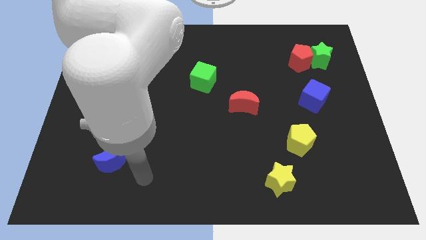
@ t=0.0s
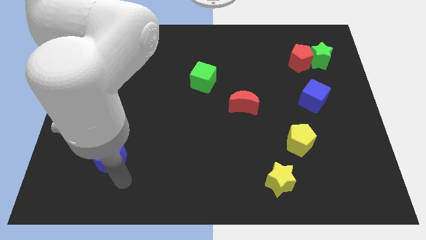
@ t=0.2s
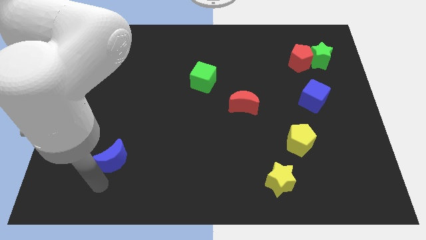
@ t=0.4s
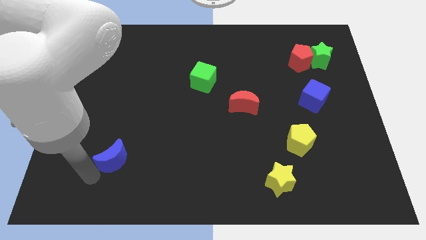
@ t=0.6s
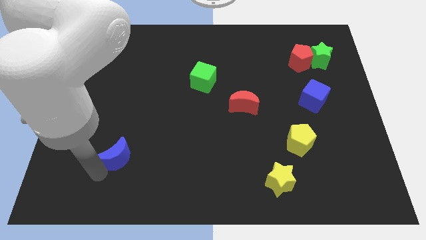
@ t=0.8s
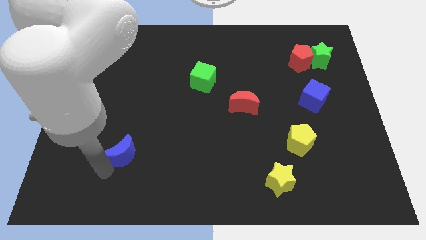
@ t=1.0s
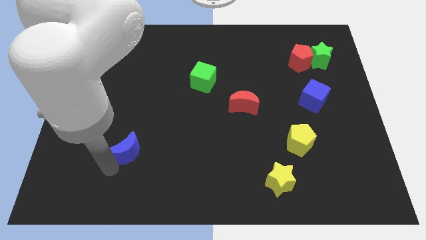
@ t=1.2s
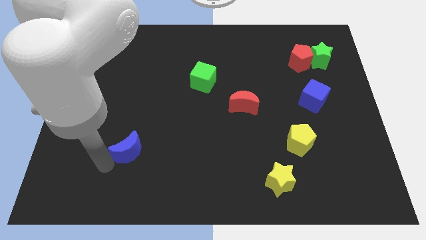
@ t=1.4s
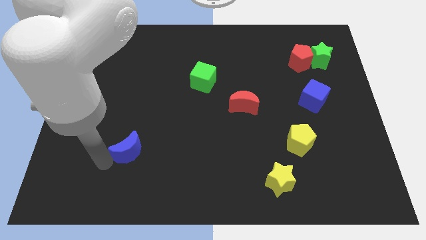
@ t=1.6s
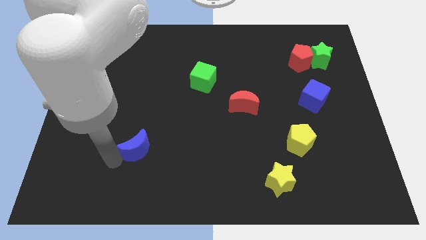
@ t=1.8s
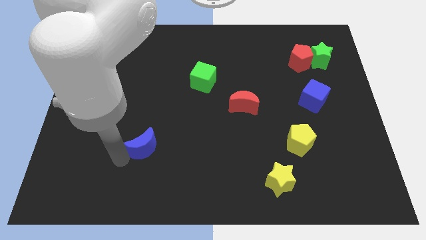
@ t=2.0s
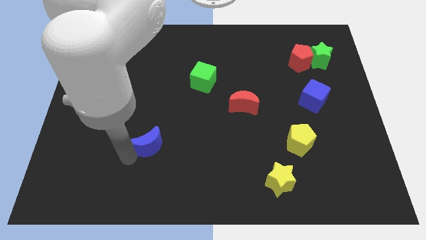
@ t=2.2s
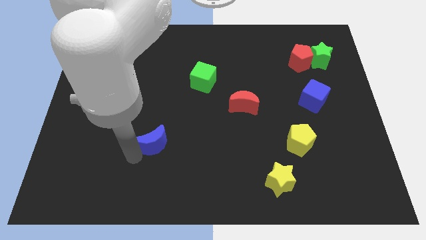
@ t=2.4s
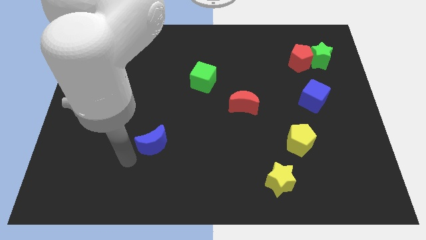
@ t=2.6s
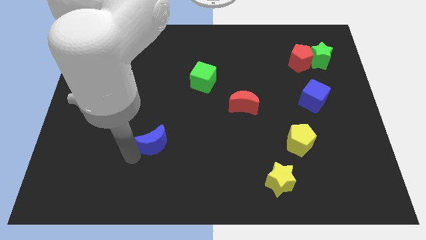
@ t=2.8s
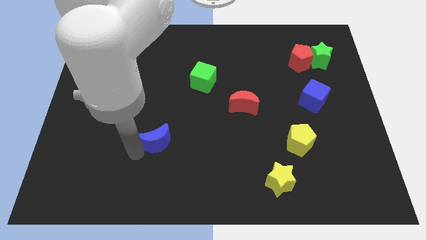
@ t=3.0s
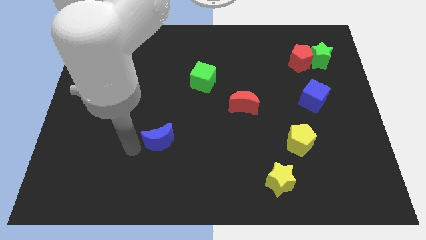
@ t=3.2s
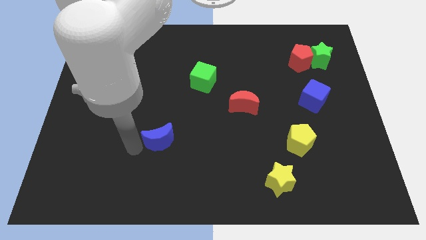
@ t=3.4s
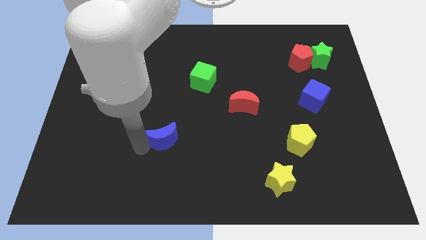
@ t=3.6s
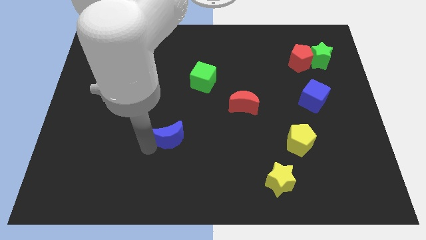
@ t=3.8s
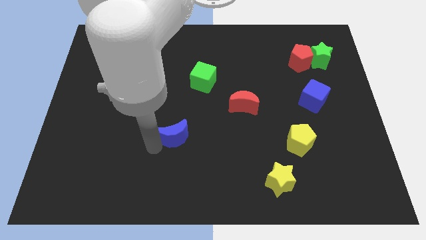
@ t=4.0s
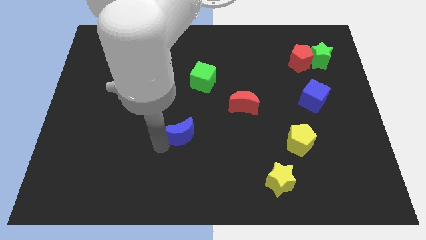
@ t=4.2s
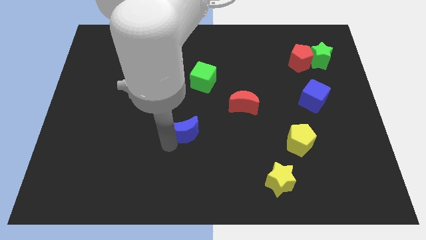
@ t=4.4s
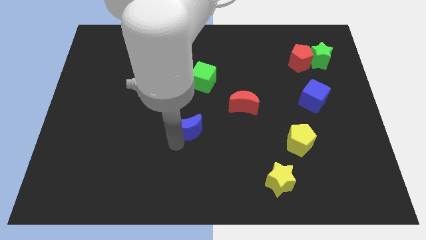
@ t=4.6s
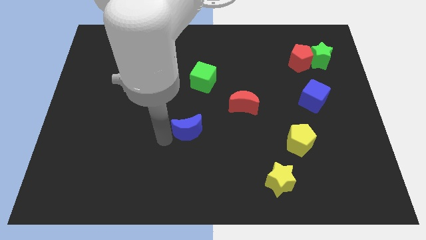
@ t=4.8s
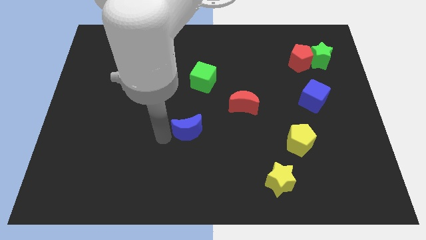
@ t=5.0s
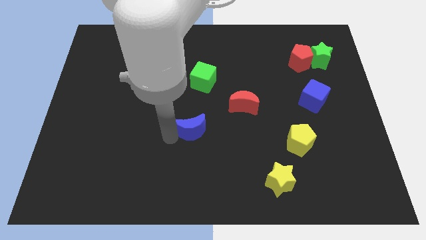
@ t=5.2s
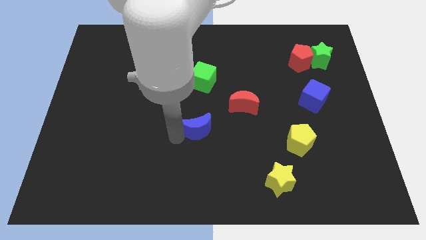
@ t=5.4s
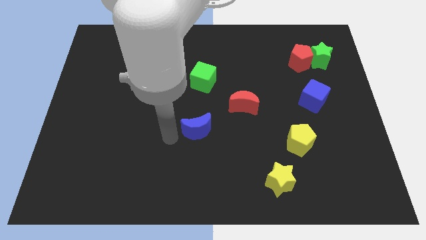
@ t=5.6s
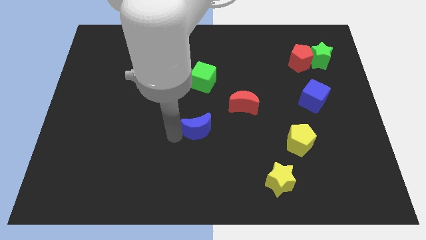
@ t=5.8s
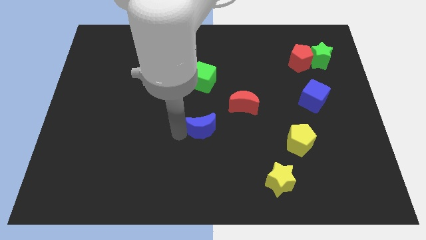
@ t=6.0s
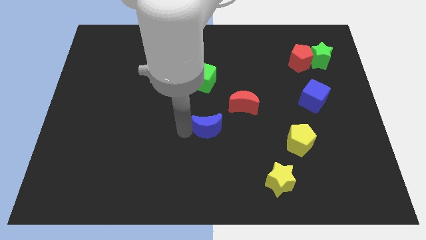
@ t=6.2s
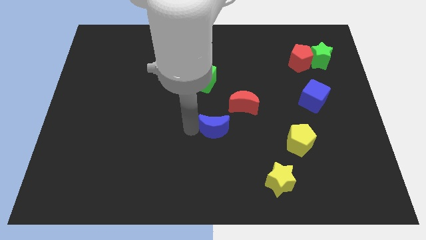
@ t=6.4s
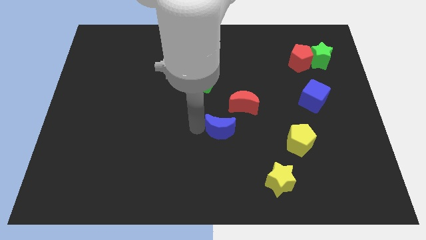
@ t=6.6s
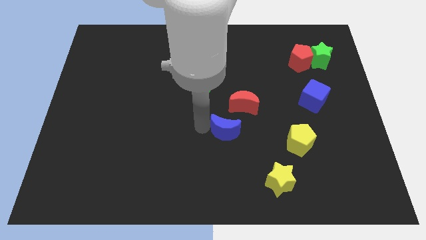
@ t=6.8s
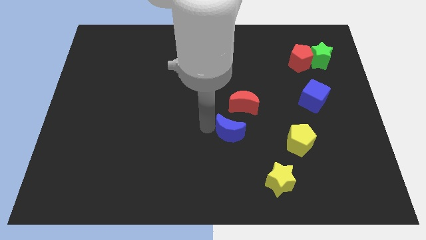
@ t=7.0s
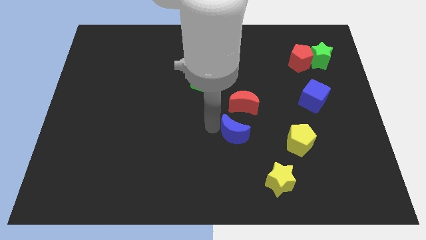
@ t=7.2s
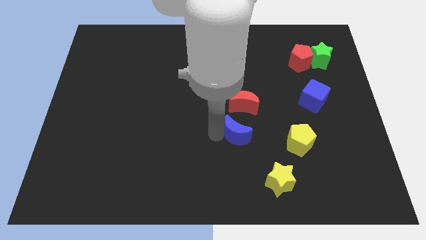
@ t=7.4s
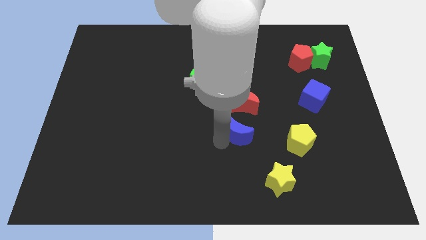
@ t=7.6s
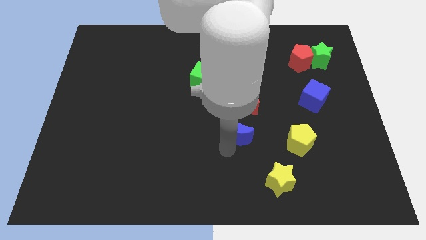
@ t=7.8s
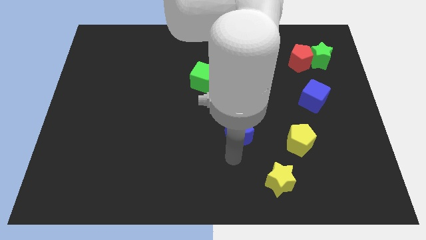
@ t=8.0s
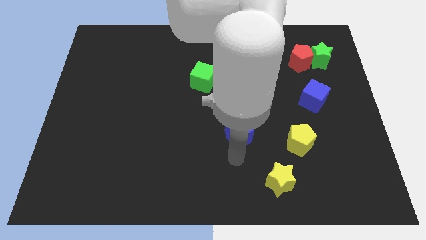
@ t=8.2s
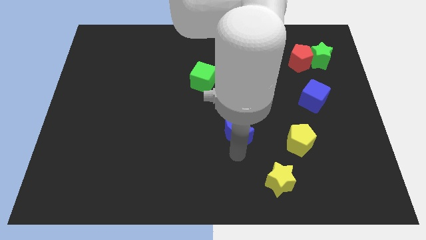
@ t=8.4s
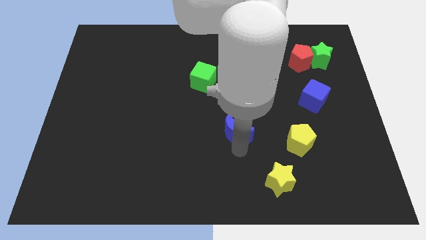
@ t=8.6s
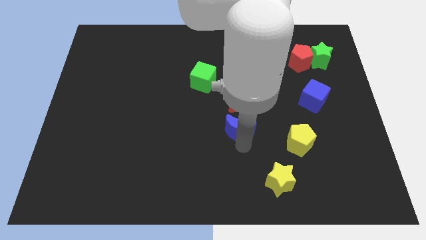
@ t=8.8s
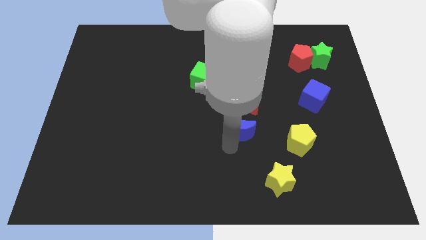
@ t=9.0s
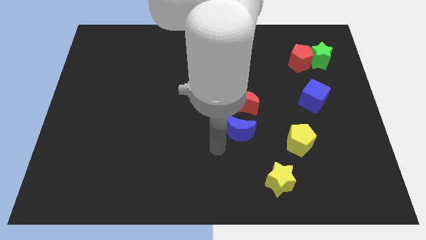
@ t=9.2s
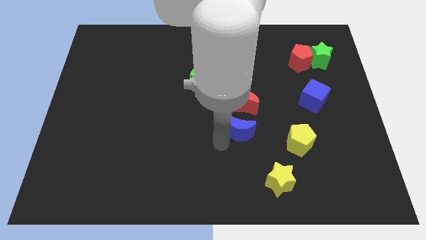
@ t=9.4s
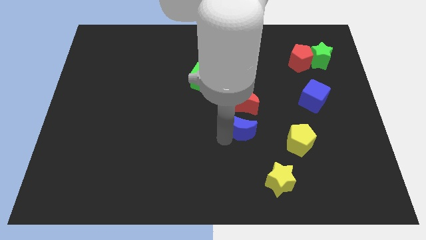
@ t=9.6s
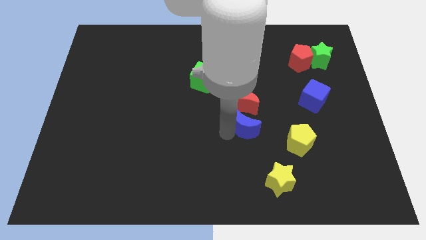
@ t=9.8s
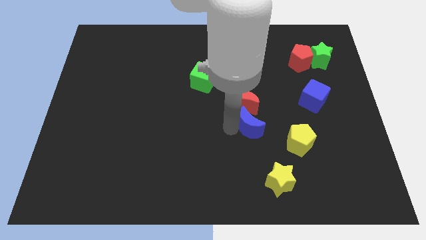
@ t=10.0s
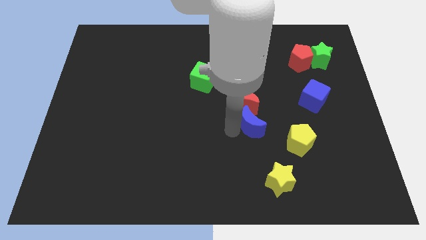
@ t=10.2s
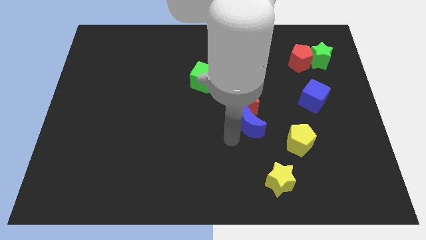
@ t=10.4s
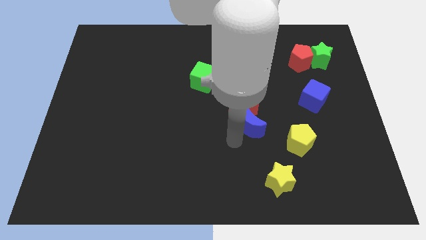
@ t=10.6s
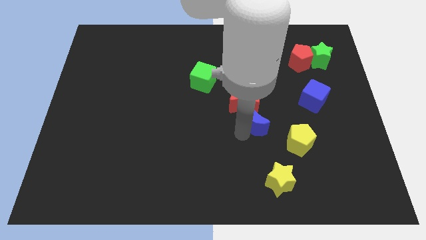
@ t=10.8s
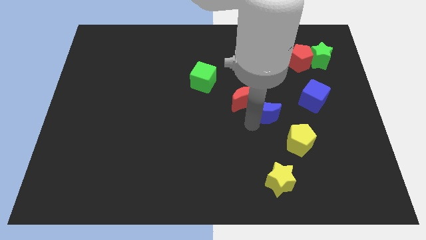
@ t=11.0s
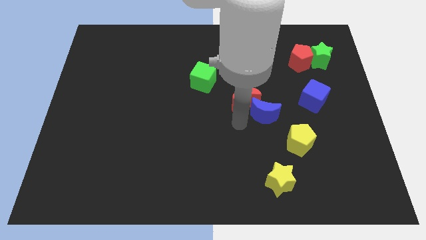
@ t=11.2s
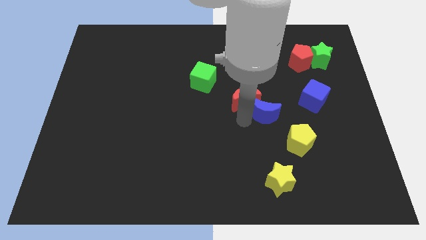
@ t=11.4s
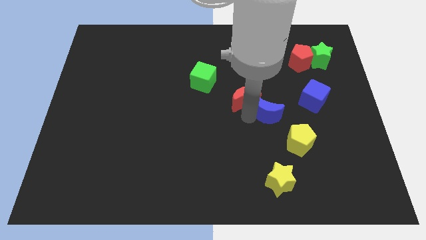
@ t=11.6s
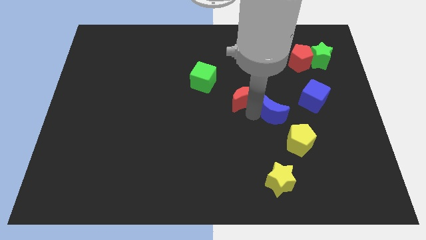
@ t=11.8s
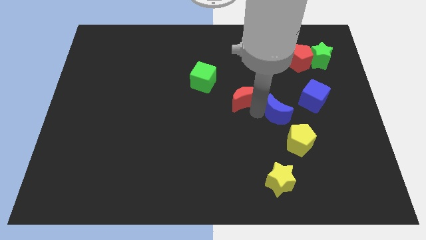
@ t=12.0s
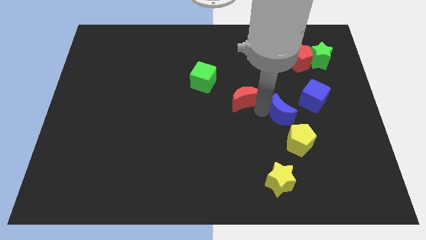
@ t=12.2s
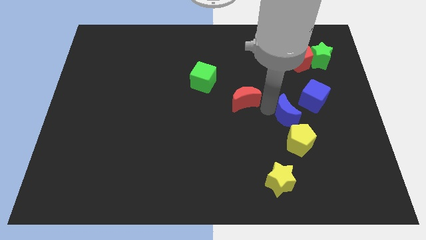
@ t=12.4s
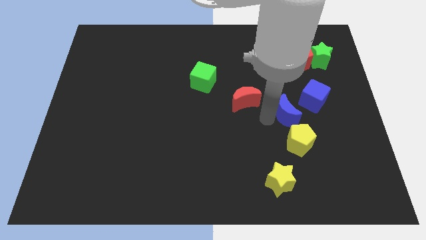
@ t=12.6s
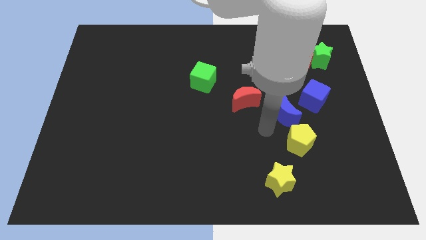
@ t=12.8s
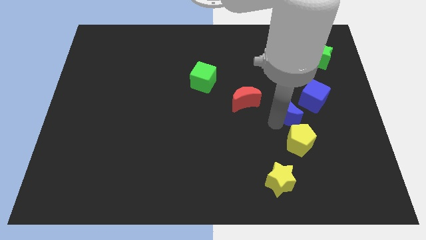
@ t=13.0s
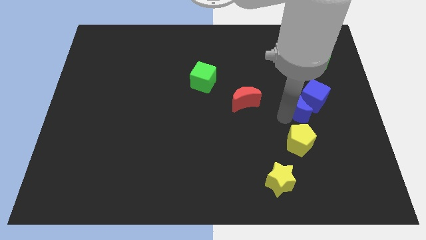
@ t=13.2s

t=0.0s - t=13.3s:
move the blue moon next to the blue cube

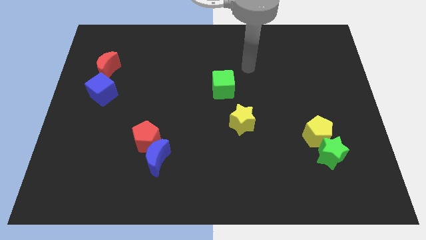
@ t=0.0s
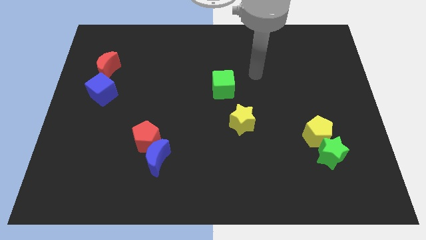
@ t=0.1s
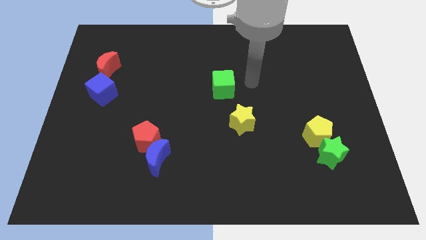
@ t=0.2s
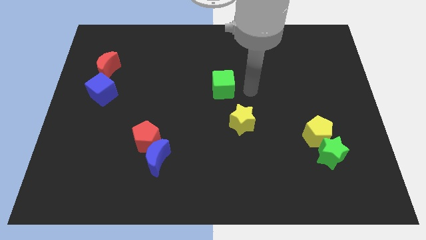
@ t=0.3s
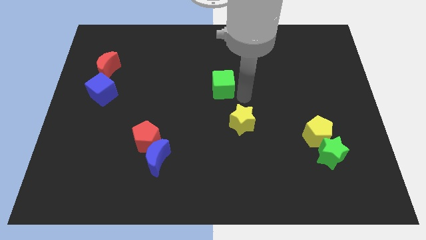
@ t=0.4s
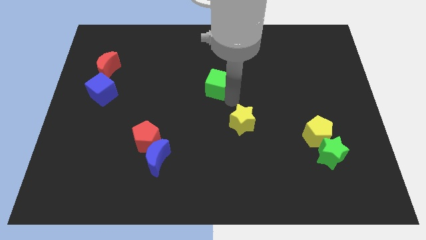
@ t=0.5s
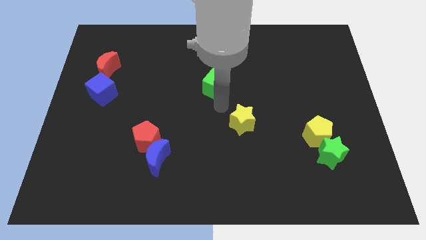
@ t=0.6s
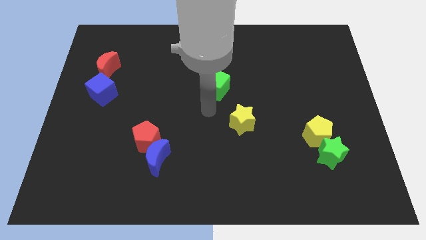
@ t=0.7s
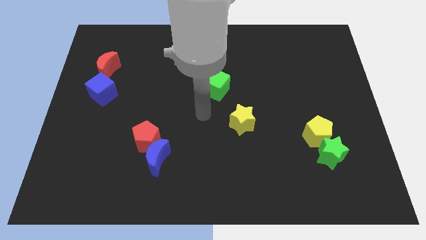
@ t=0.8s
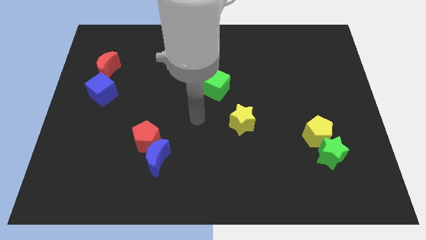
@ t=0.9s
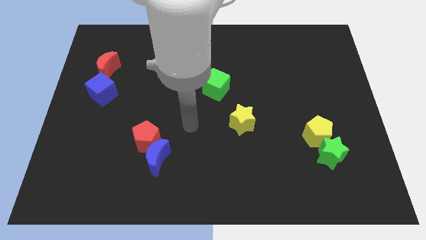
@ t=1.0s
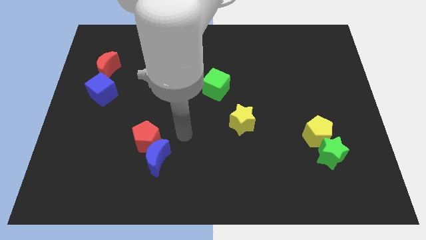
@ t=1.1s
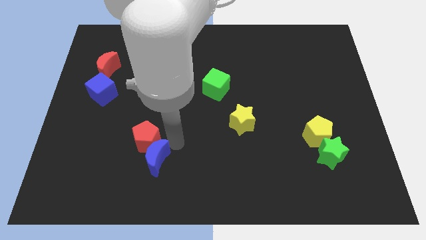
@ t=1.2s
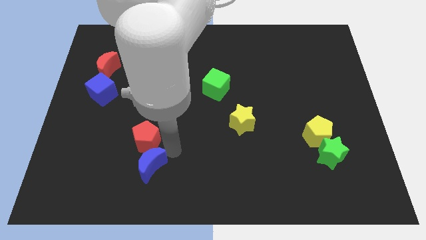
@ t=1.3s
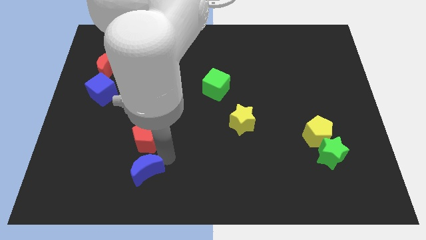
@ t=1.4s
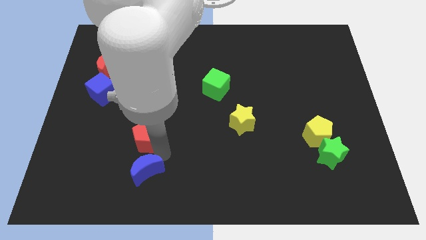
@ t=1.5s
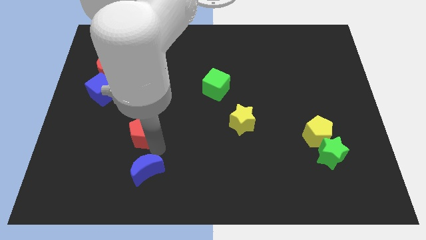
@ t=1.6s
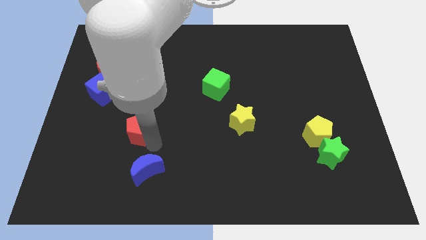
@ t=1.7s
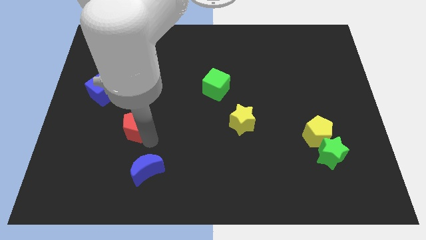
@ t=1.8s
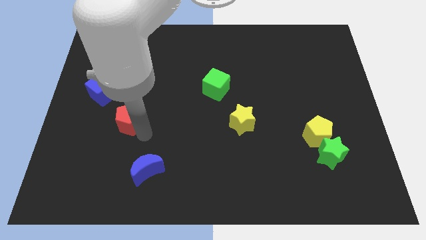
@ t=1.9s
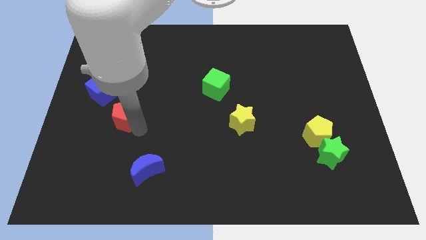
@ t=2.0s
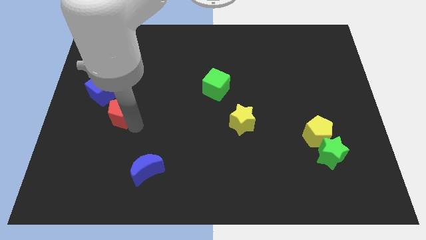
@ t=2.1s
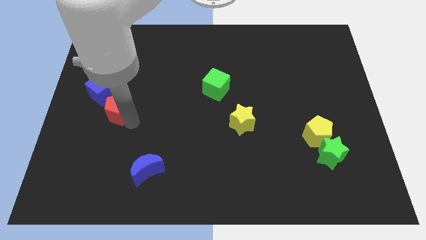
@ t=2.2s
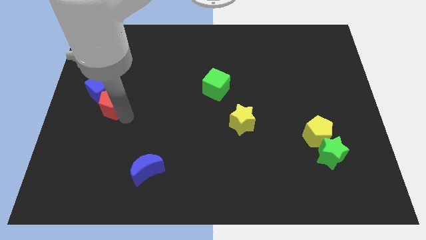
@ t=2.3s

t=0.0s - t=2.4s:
slide the red pentagon close to the blue cube
